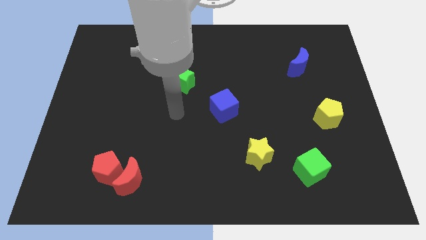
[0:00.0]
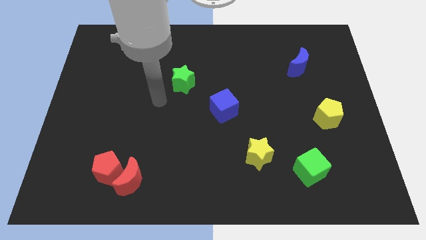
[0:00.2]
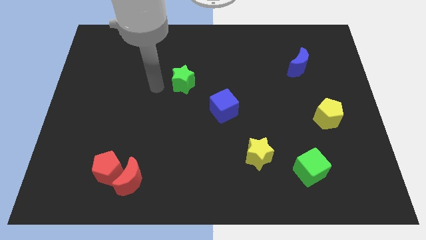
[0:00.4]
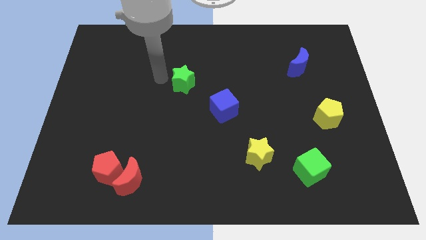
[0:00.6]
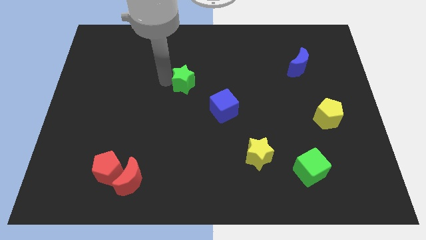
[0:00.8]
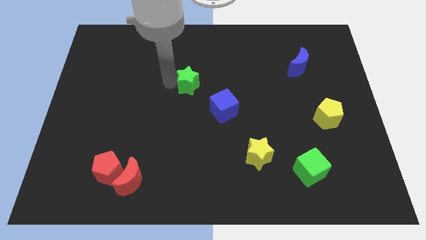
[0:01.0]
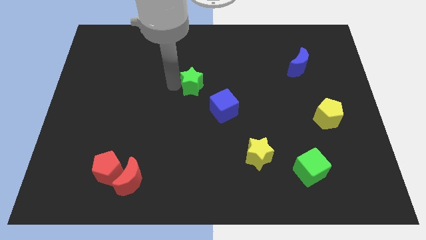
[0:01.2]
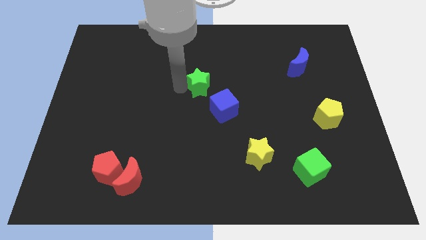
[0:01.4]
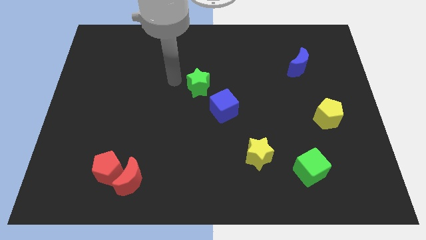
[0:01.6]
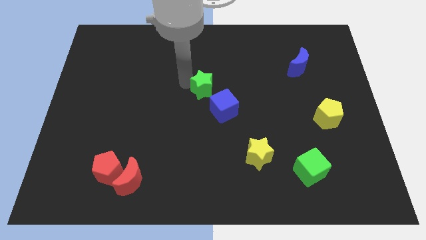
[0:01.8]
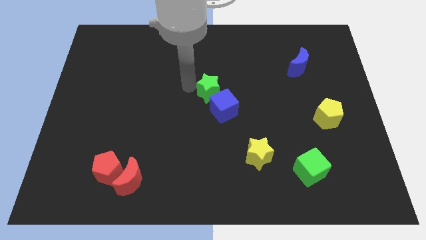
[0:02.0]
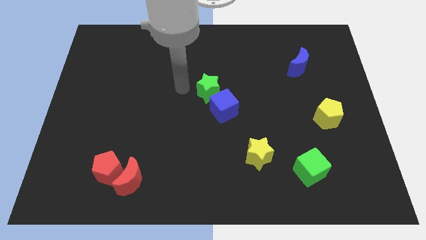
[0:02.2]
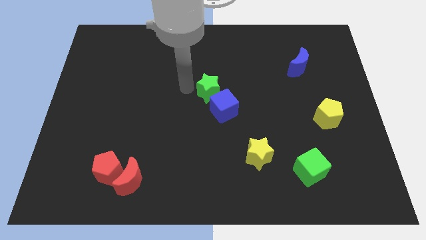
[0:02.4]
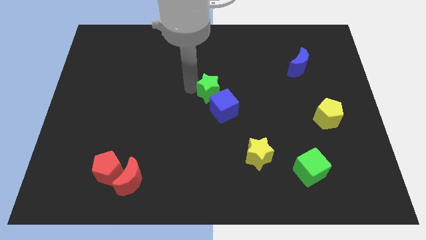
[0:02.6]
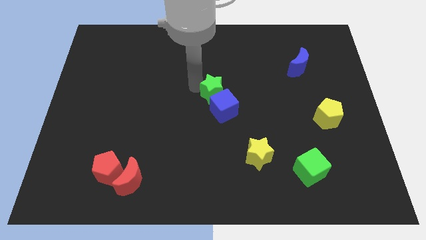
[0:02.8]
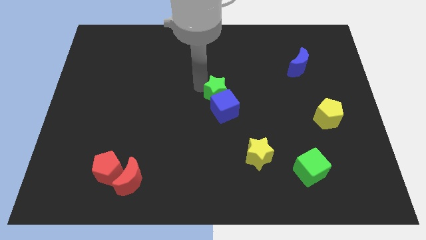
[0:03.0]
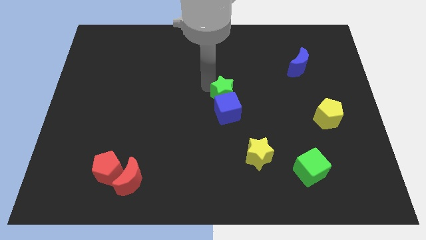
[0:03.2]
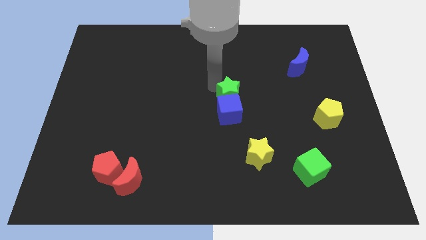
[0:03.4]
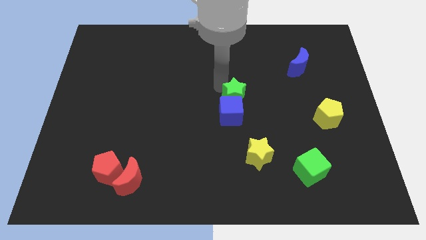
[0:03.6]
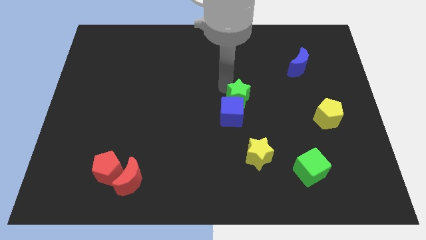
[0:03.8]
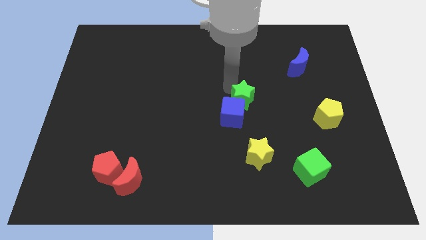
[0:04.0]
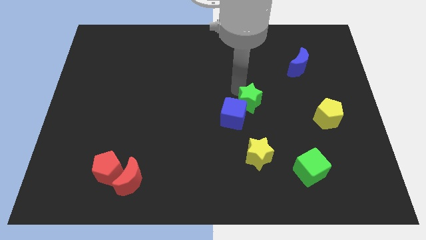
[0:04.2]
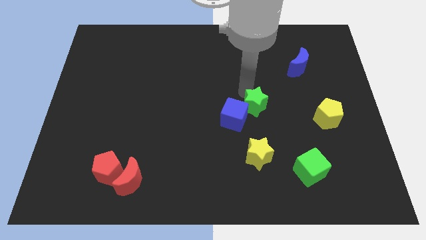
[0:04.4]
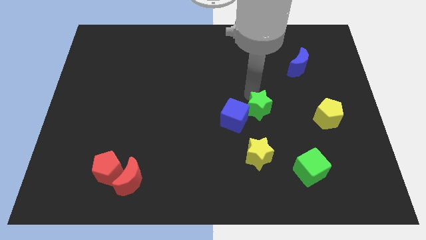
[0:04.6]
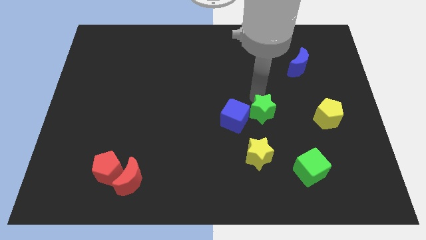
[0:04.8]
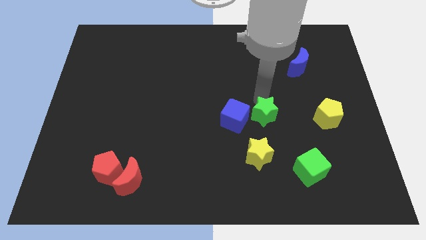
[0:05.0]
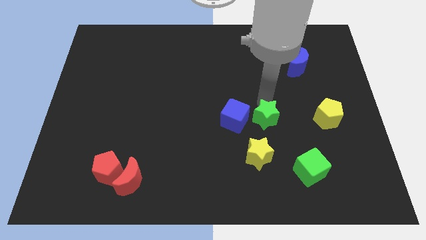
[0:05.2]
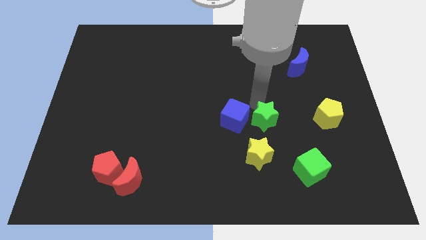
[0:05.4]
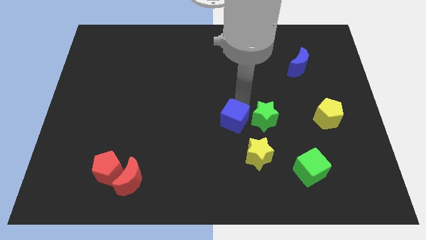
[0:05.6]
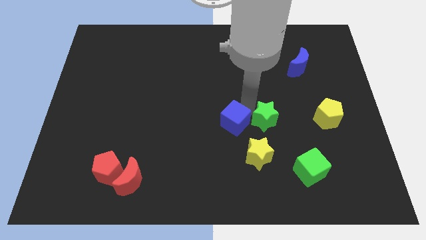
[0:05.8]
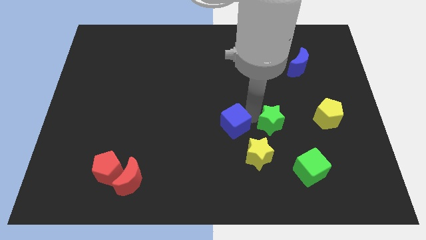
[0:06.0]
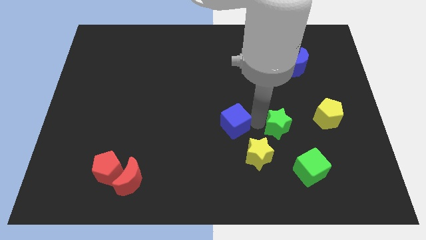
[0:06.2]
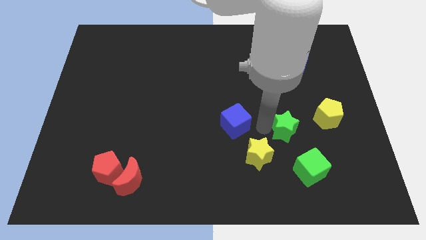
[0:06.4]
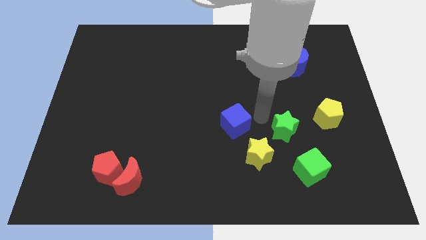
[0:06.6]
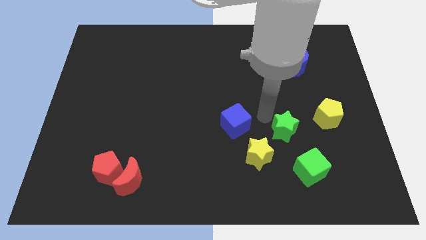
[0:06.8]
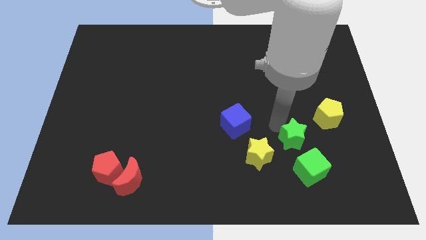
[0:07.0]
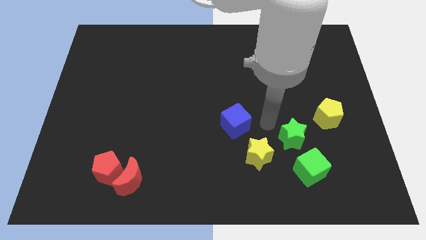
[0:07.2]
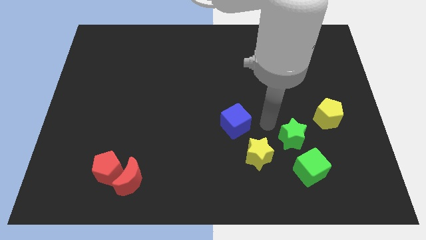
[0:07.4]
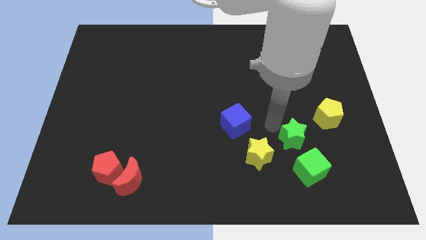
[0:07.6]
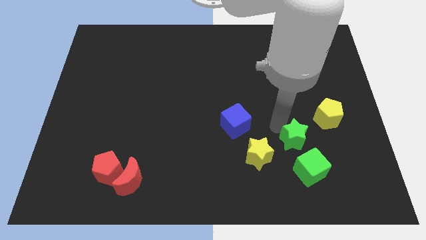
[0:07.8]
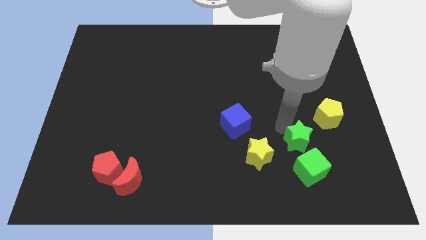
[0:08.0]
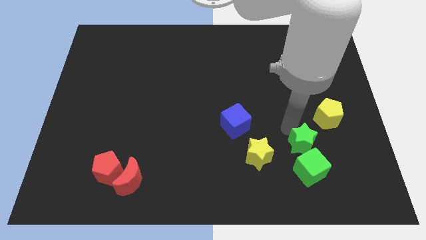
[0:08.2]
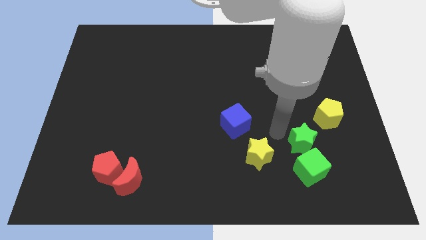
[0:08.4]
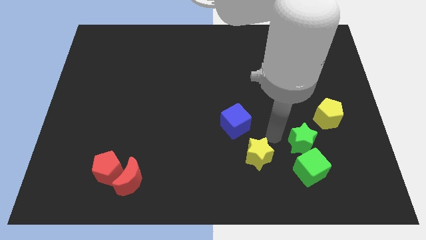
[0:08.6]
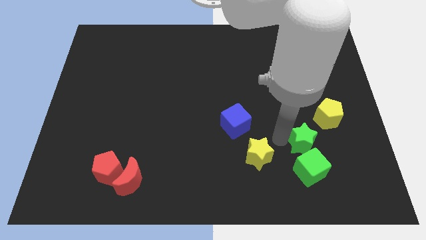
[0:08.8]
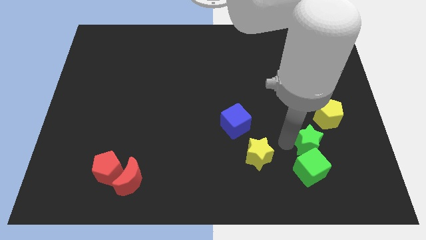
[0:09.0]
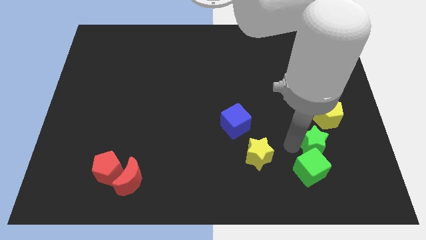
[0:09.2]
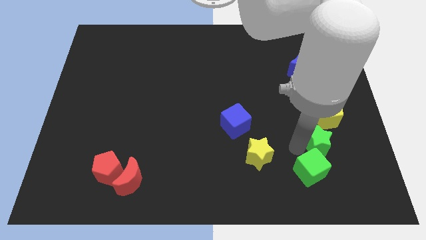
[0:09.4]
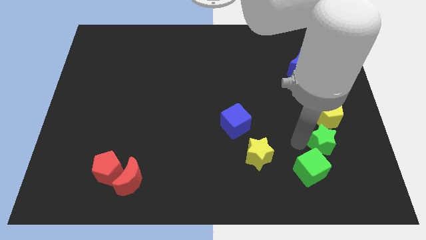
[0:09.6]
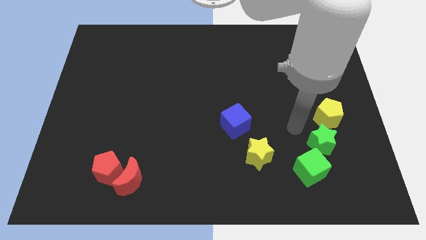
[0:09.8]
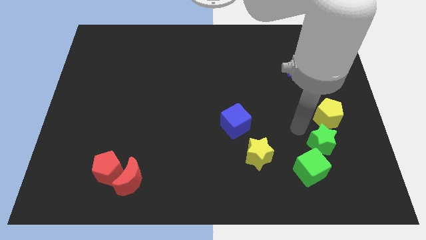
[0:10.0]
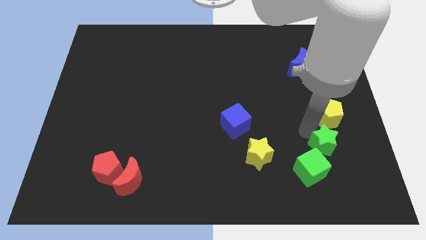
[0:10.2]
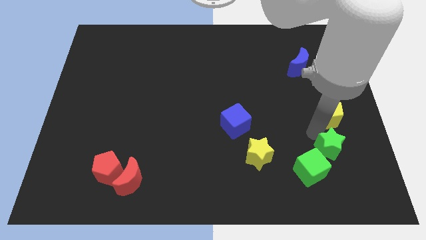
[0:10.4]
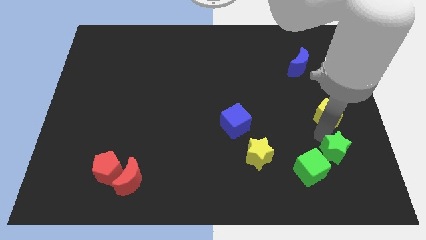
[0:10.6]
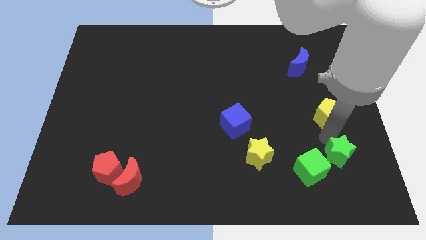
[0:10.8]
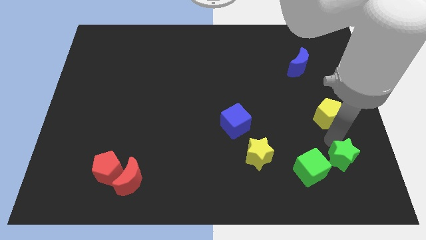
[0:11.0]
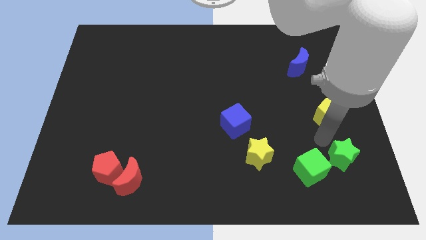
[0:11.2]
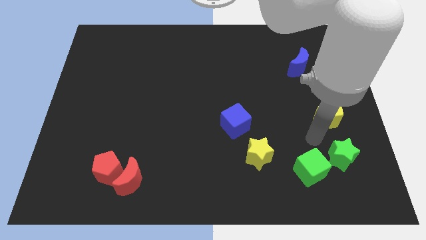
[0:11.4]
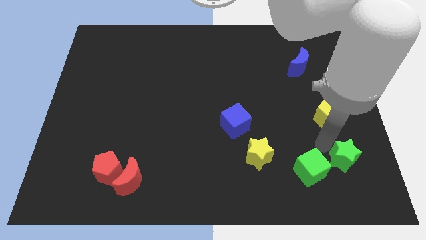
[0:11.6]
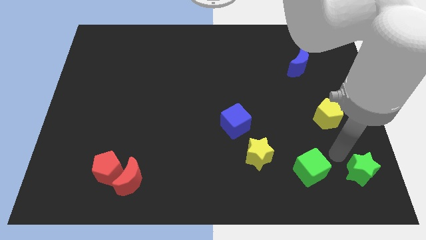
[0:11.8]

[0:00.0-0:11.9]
put the green star to the lower right corner

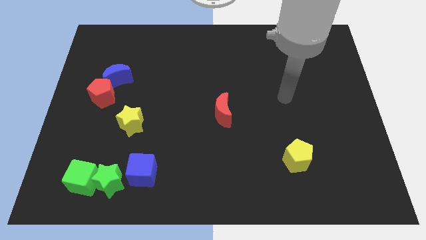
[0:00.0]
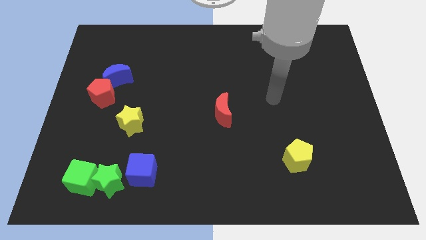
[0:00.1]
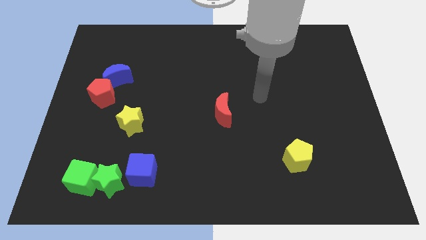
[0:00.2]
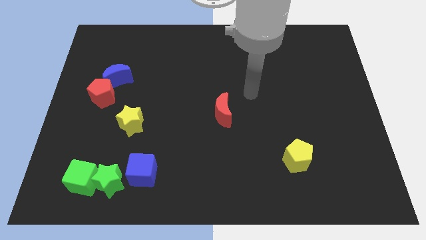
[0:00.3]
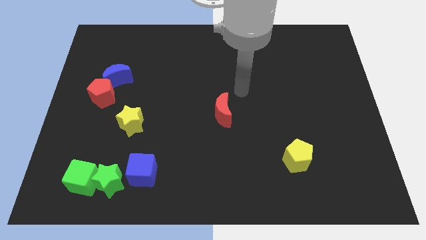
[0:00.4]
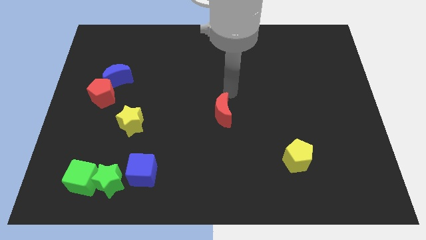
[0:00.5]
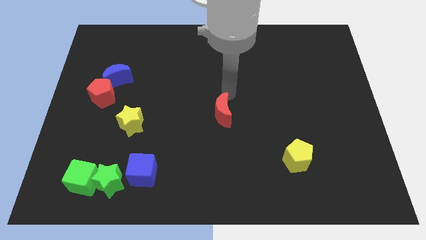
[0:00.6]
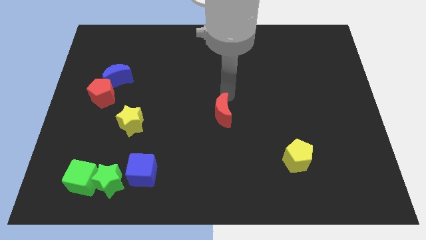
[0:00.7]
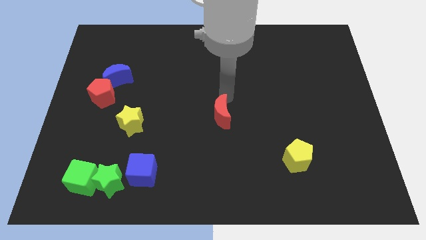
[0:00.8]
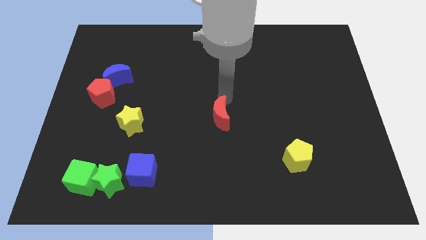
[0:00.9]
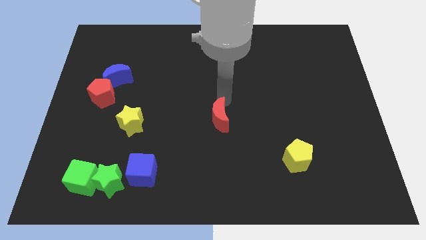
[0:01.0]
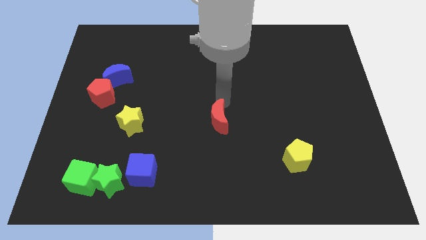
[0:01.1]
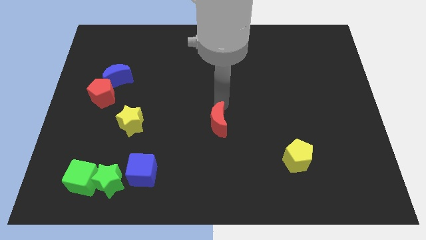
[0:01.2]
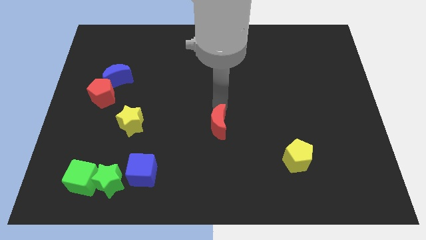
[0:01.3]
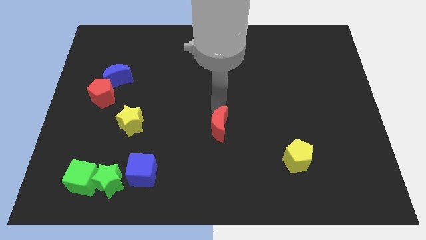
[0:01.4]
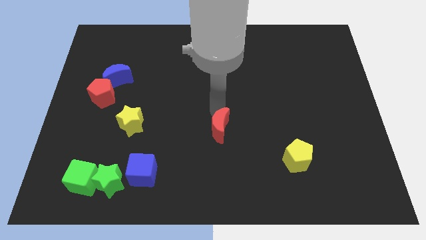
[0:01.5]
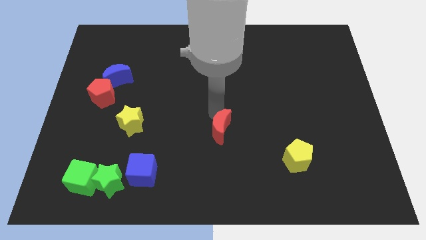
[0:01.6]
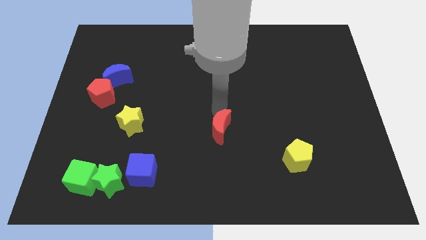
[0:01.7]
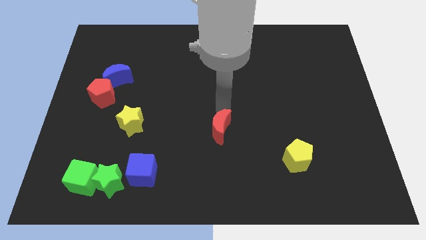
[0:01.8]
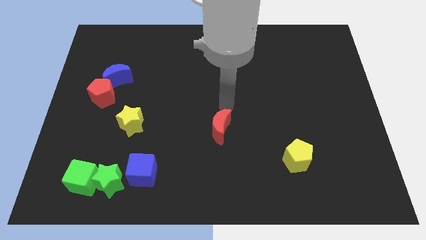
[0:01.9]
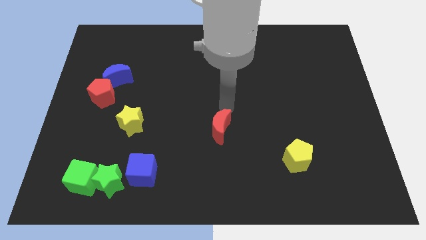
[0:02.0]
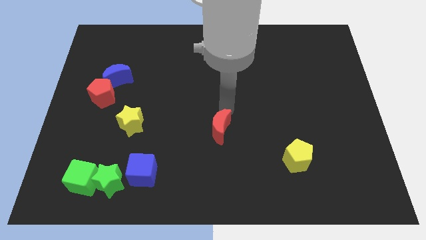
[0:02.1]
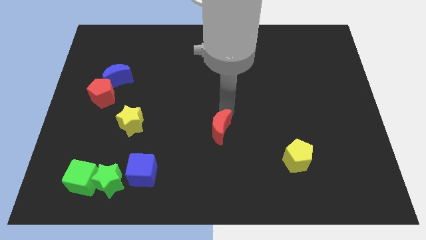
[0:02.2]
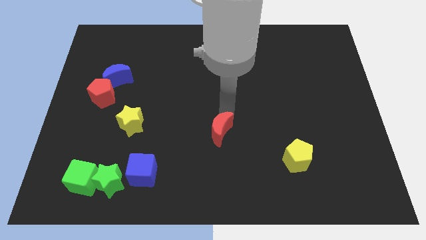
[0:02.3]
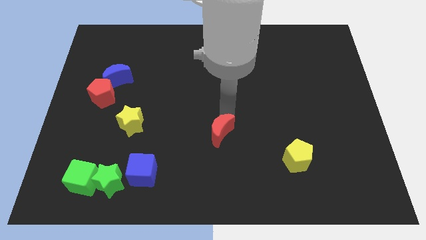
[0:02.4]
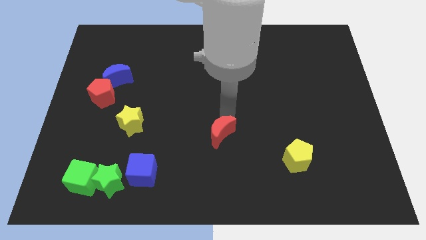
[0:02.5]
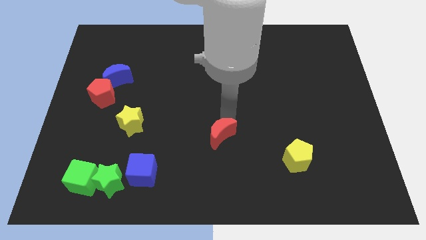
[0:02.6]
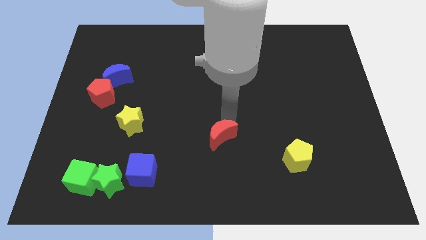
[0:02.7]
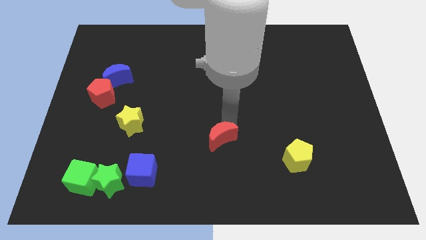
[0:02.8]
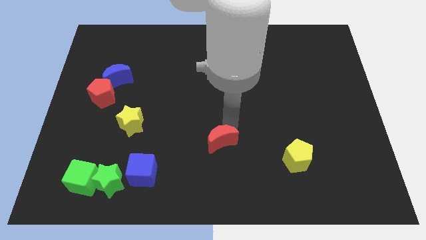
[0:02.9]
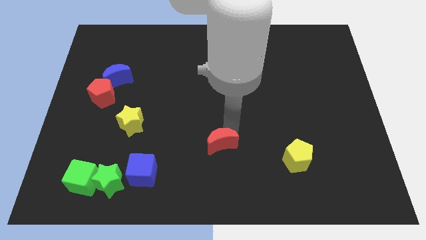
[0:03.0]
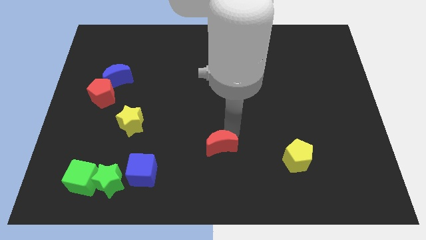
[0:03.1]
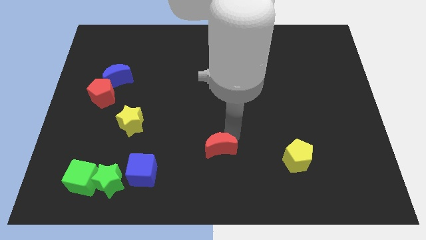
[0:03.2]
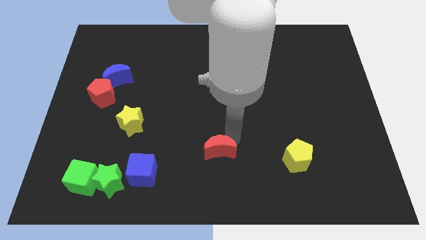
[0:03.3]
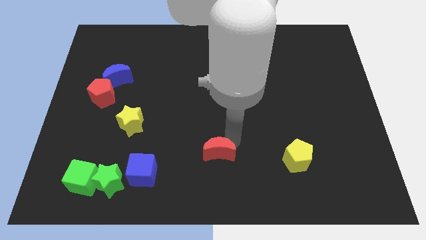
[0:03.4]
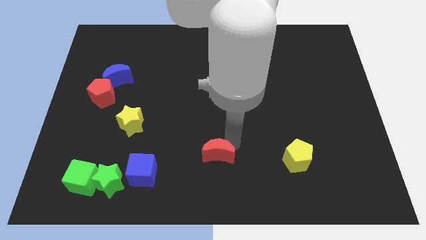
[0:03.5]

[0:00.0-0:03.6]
move the red moon to the bottom side
